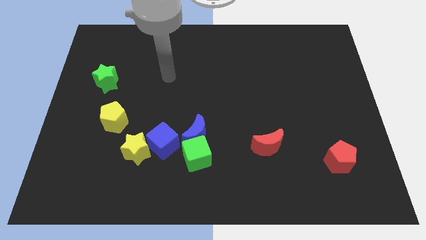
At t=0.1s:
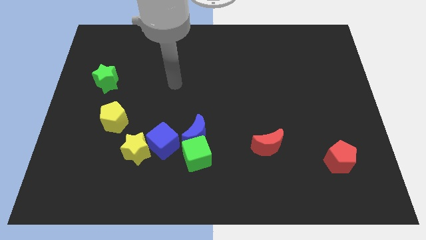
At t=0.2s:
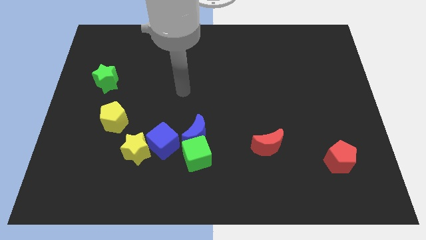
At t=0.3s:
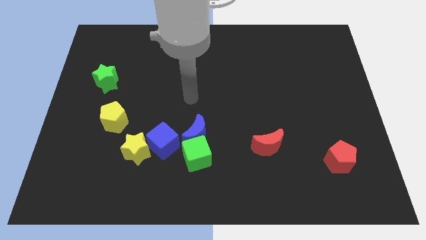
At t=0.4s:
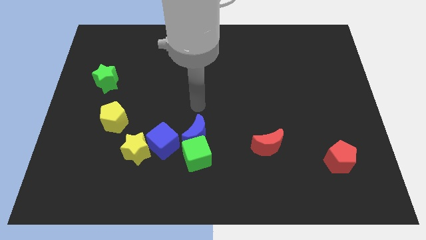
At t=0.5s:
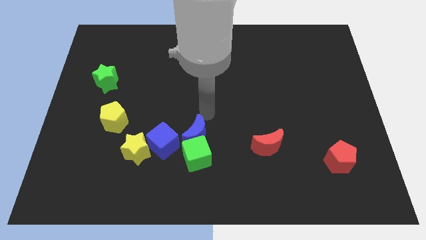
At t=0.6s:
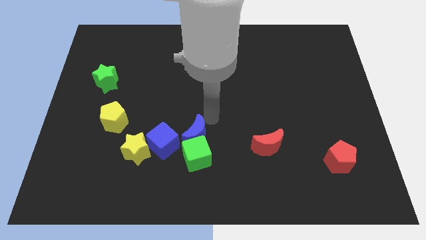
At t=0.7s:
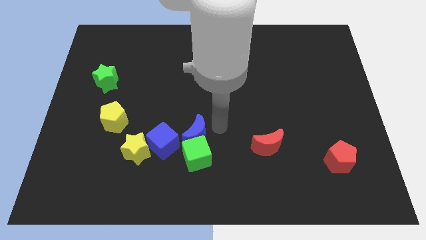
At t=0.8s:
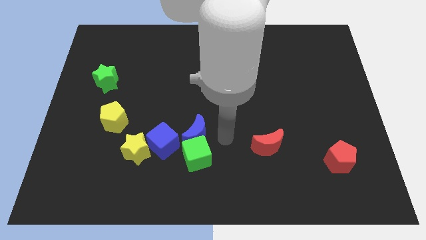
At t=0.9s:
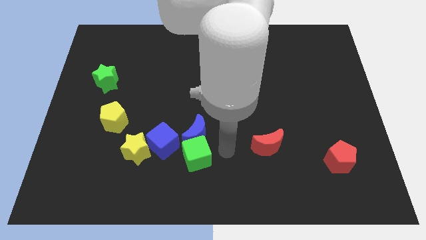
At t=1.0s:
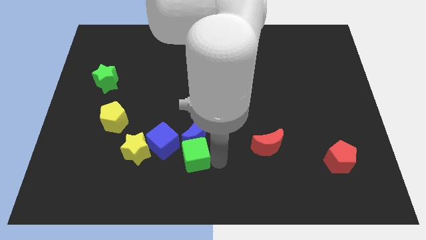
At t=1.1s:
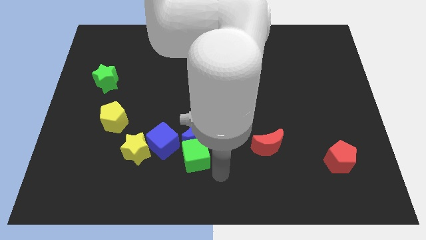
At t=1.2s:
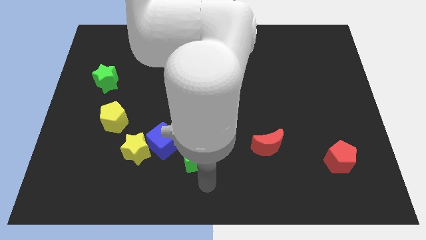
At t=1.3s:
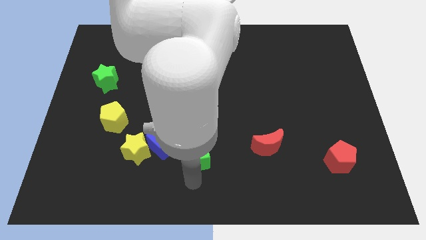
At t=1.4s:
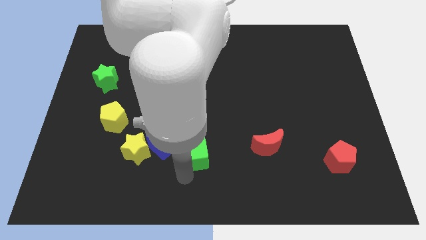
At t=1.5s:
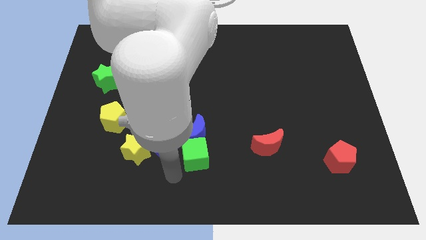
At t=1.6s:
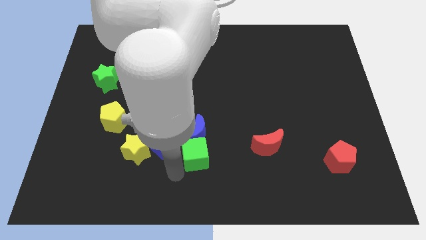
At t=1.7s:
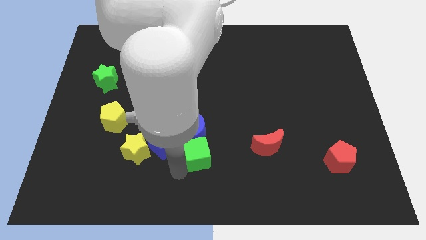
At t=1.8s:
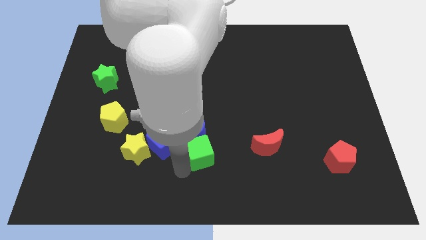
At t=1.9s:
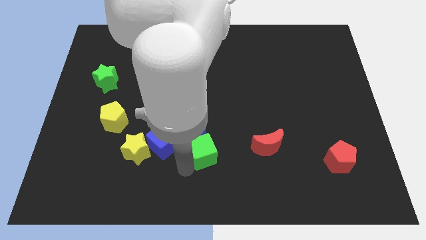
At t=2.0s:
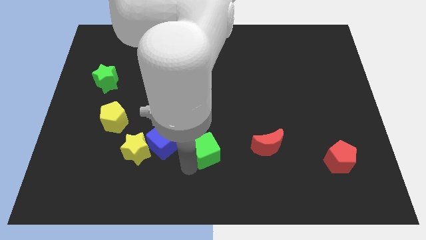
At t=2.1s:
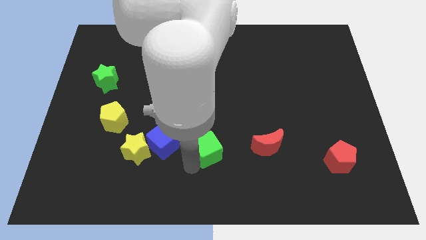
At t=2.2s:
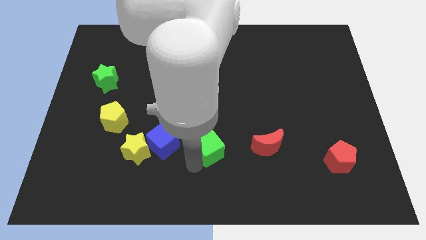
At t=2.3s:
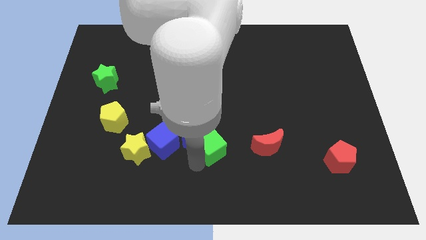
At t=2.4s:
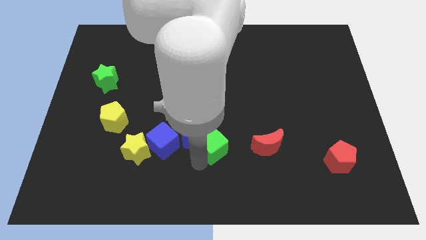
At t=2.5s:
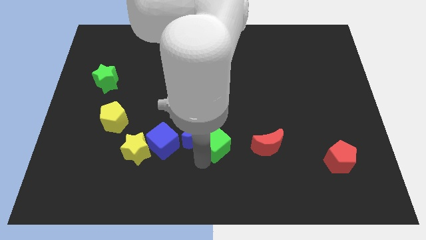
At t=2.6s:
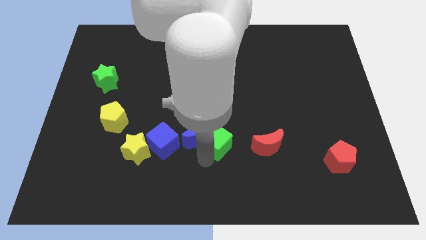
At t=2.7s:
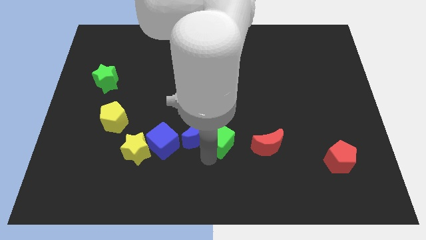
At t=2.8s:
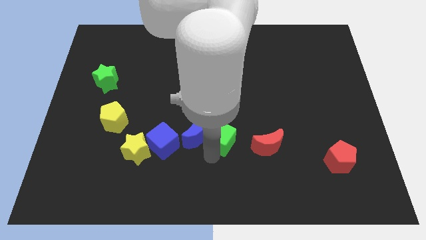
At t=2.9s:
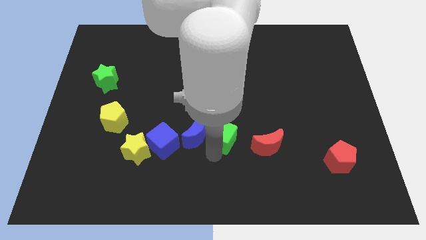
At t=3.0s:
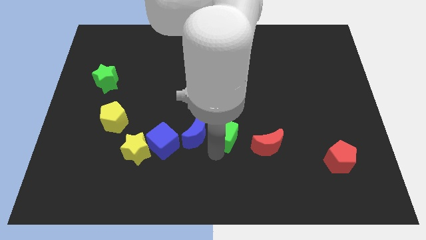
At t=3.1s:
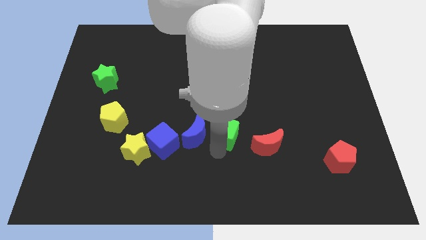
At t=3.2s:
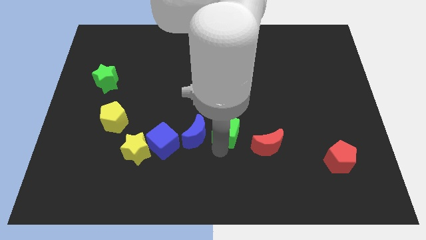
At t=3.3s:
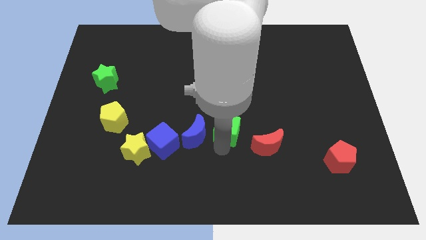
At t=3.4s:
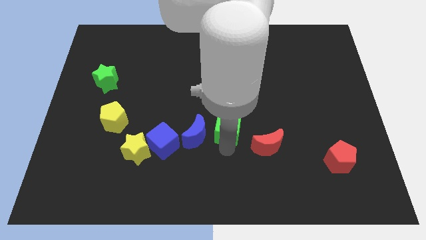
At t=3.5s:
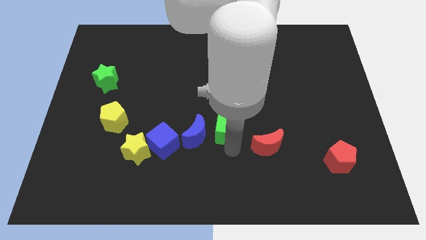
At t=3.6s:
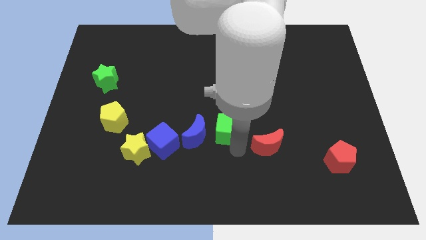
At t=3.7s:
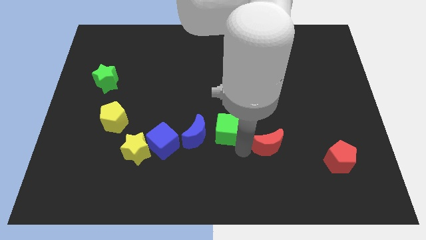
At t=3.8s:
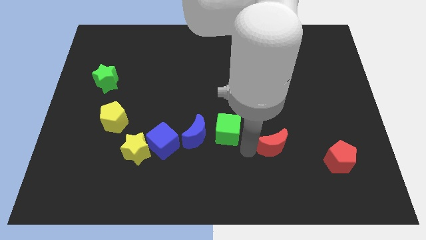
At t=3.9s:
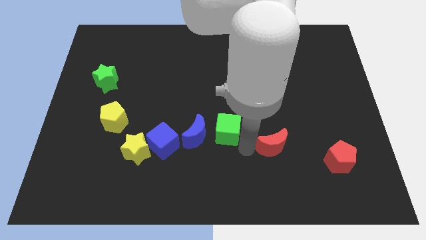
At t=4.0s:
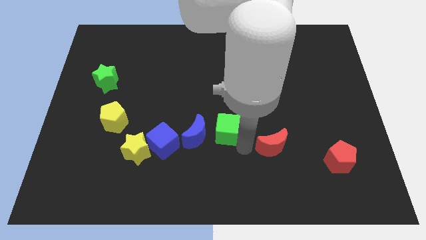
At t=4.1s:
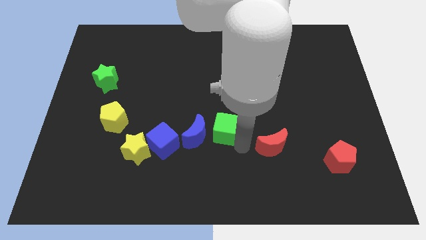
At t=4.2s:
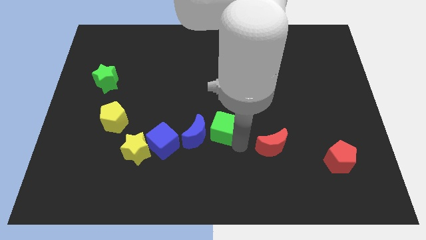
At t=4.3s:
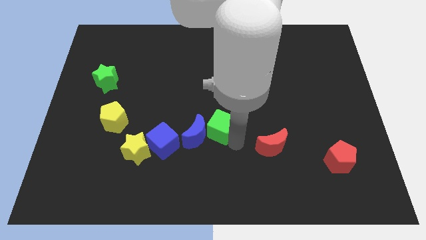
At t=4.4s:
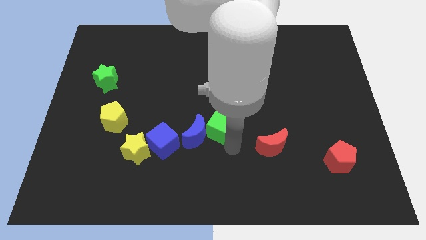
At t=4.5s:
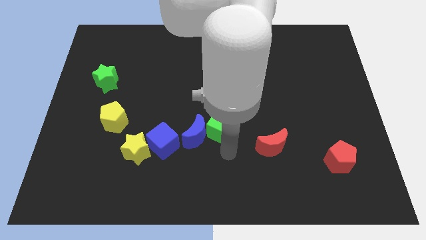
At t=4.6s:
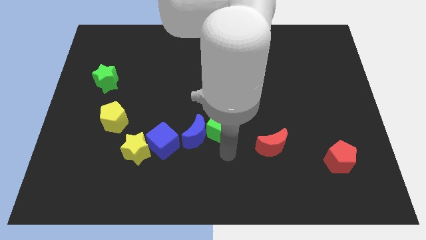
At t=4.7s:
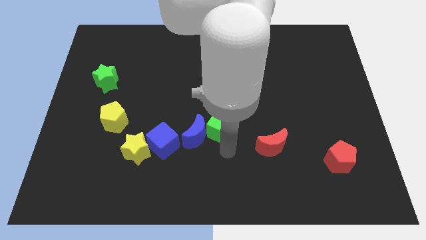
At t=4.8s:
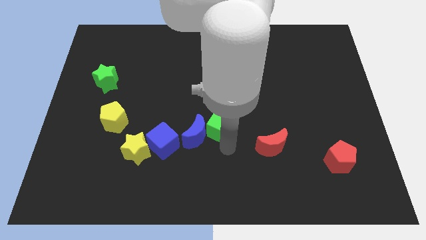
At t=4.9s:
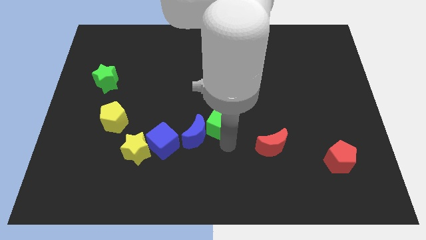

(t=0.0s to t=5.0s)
move the green cube a little up

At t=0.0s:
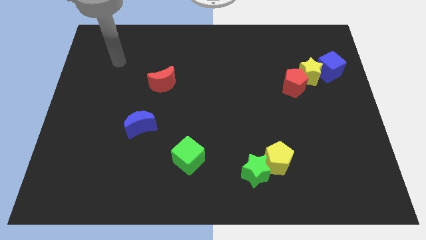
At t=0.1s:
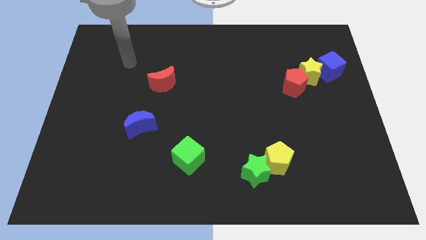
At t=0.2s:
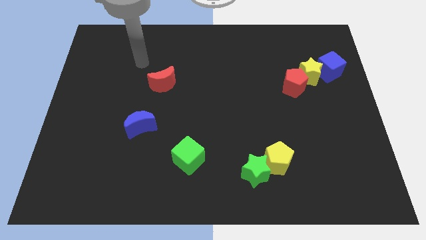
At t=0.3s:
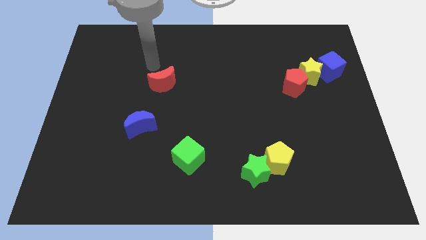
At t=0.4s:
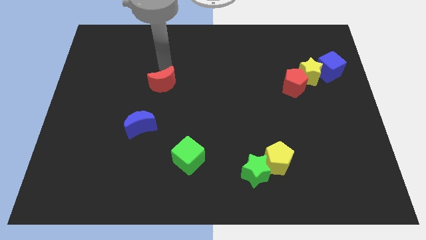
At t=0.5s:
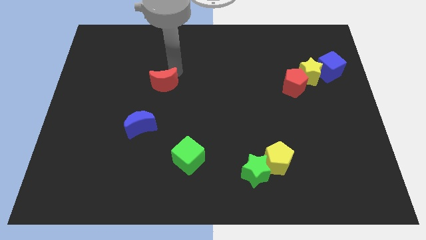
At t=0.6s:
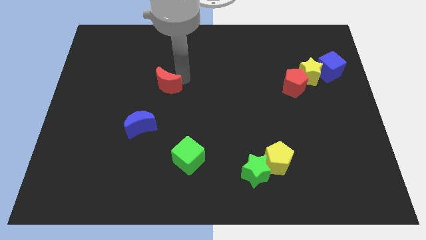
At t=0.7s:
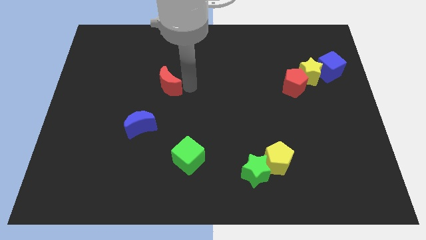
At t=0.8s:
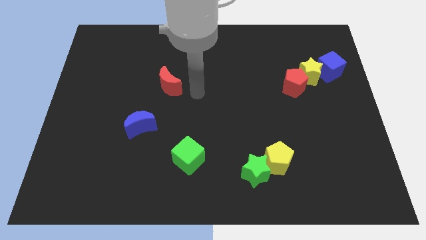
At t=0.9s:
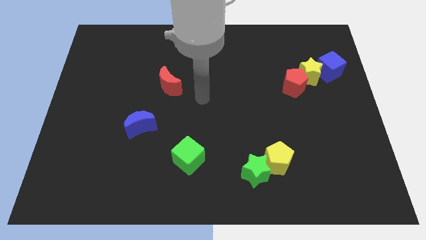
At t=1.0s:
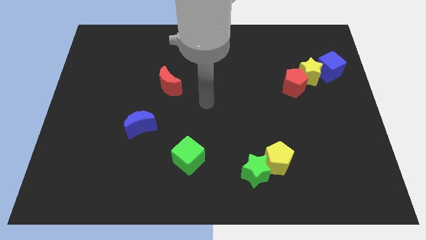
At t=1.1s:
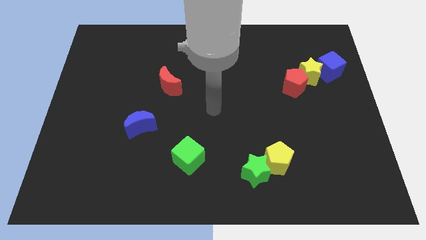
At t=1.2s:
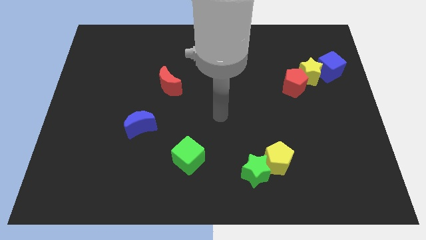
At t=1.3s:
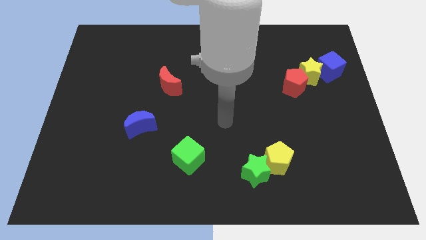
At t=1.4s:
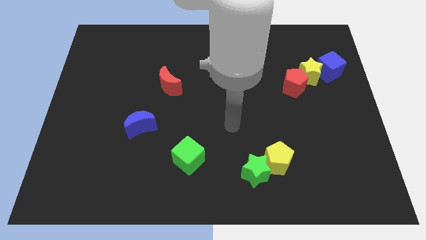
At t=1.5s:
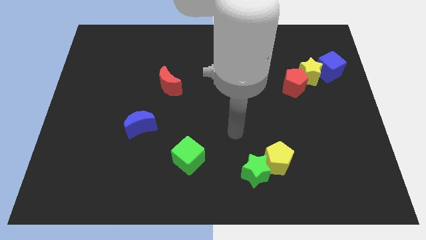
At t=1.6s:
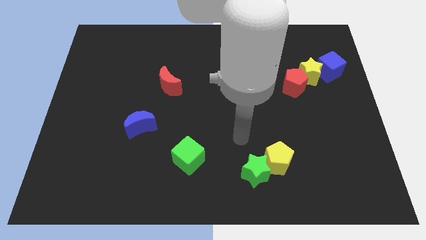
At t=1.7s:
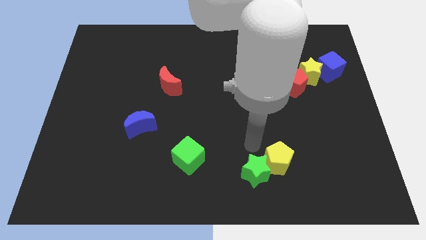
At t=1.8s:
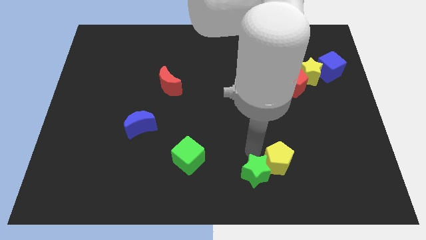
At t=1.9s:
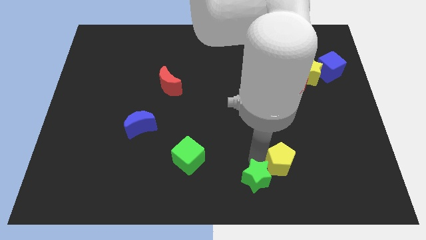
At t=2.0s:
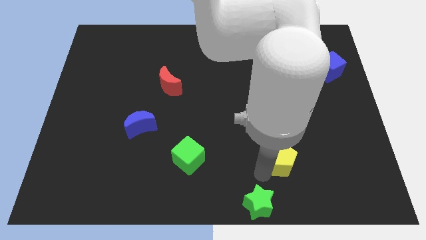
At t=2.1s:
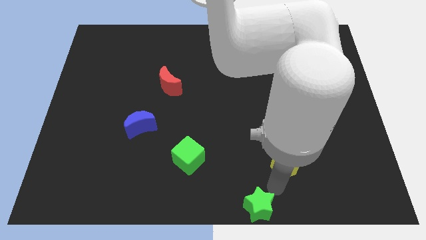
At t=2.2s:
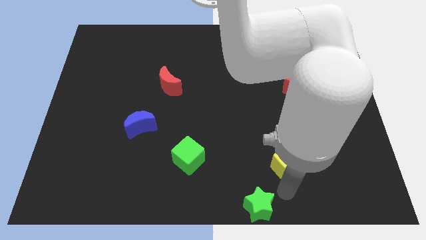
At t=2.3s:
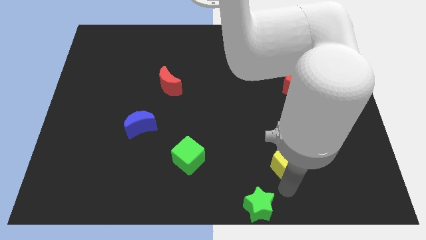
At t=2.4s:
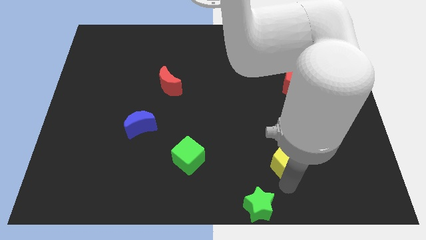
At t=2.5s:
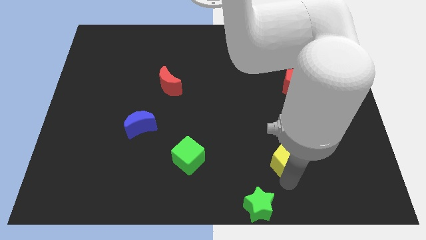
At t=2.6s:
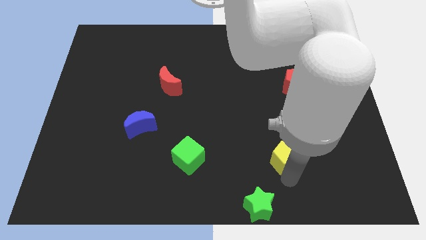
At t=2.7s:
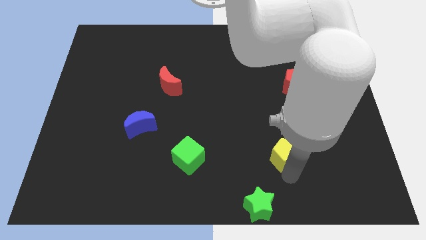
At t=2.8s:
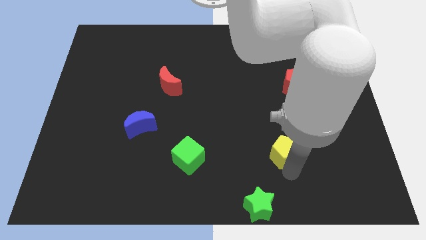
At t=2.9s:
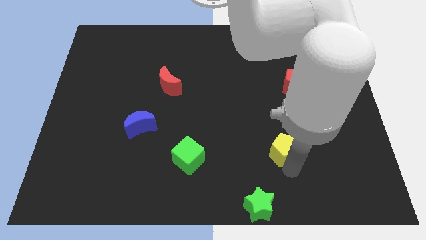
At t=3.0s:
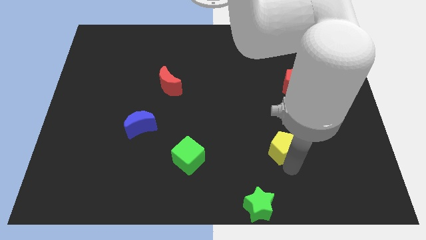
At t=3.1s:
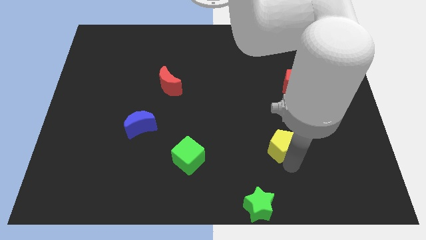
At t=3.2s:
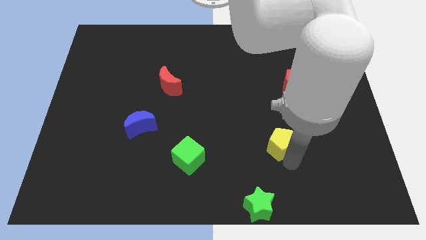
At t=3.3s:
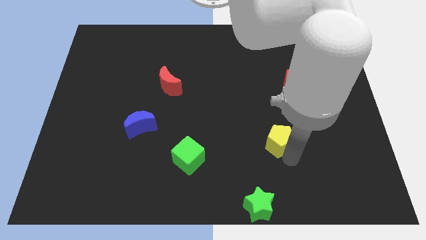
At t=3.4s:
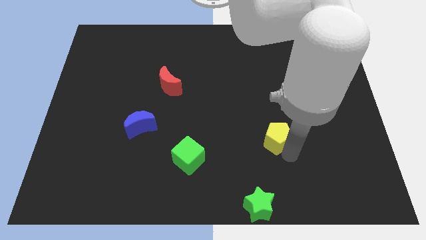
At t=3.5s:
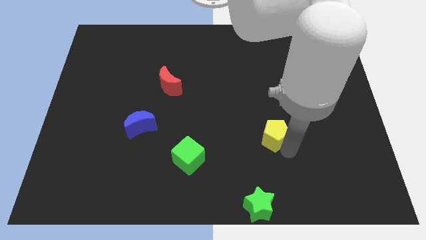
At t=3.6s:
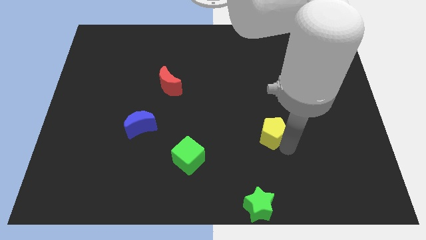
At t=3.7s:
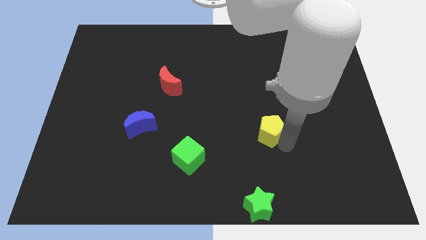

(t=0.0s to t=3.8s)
slightly slide the yellow pentagon up
